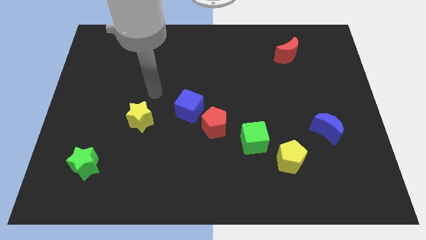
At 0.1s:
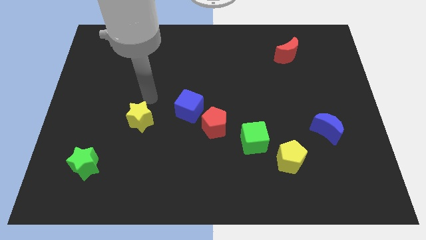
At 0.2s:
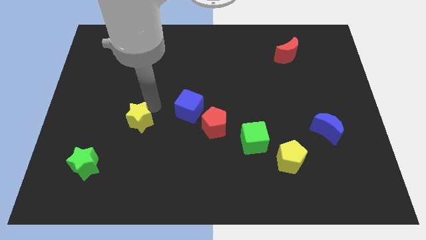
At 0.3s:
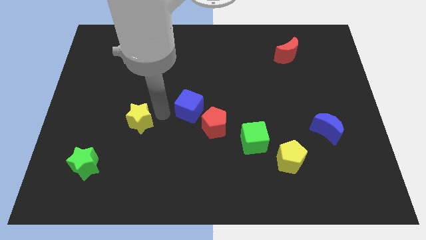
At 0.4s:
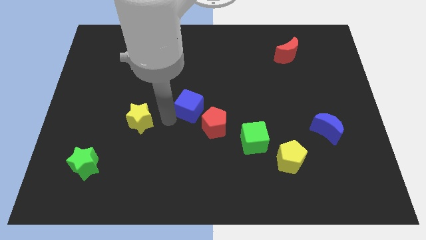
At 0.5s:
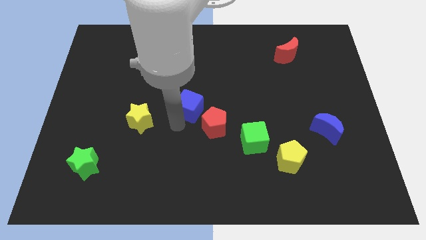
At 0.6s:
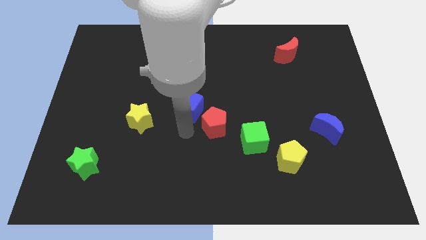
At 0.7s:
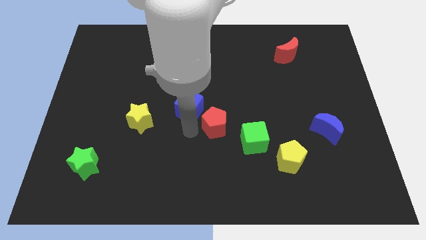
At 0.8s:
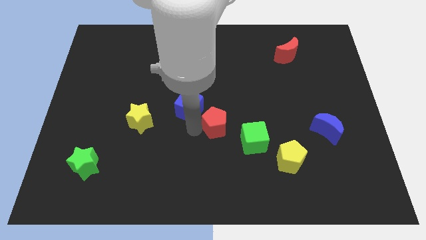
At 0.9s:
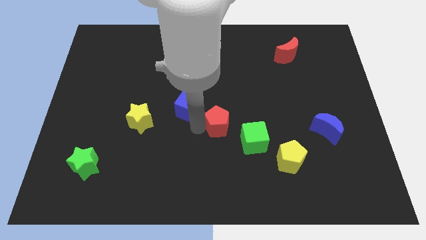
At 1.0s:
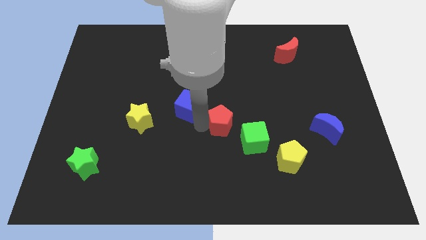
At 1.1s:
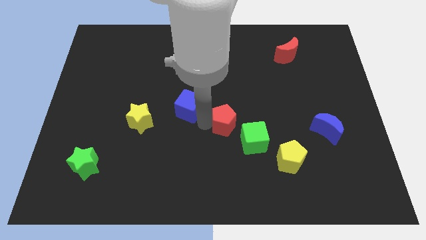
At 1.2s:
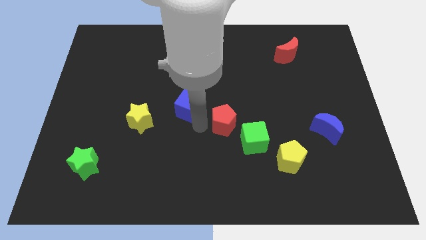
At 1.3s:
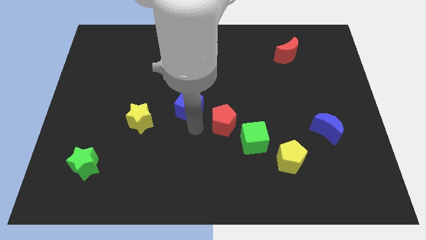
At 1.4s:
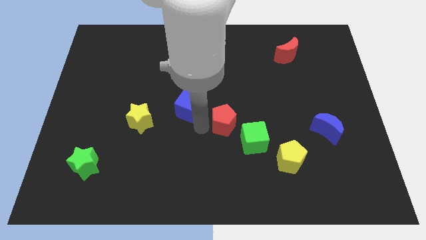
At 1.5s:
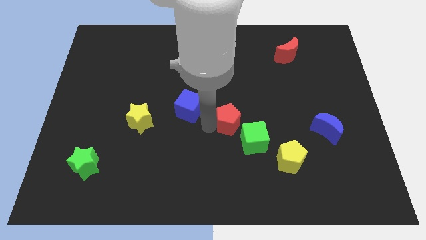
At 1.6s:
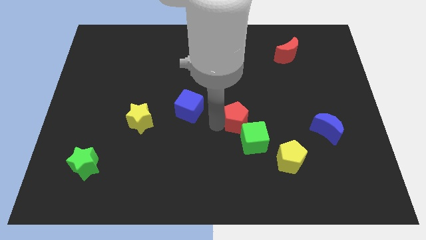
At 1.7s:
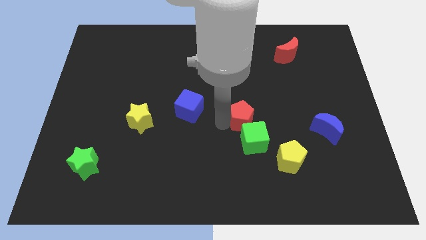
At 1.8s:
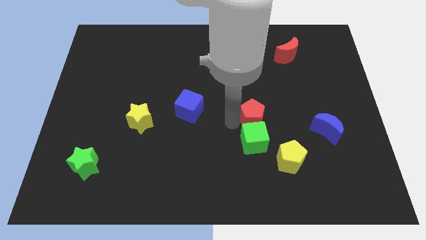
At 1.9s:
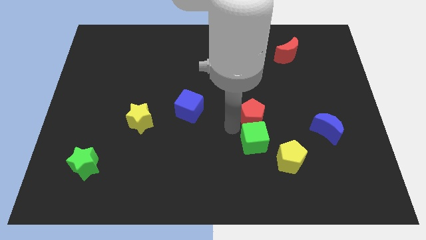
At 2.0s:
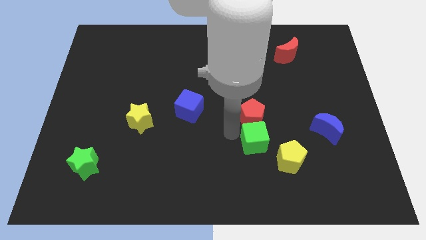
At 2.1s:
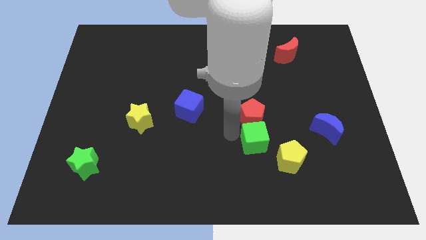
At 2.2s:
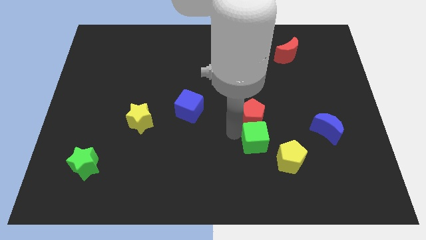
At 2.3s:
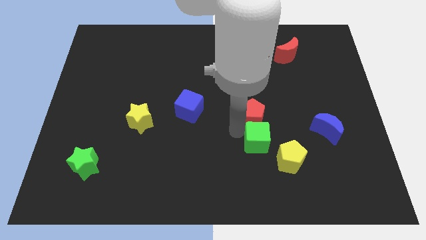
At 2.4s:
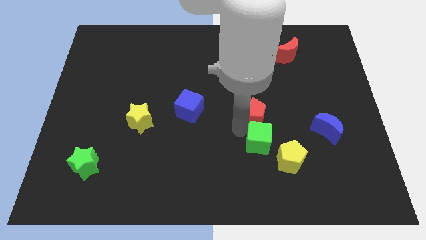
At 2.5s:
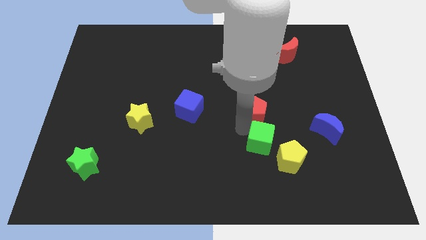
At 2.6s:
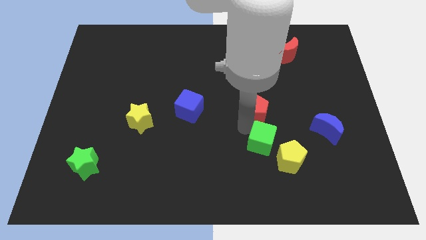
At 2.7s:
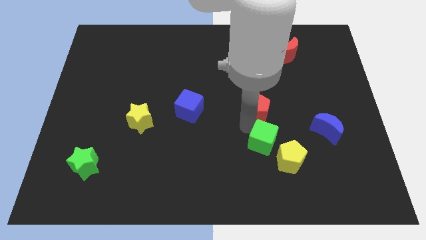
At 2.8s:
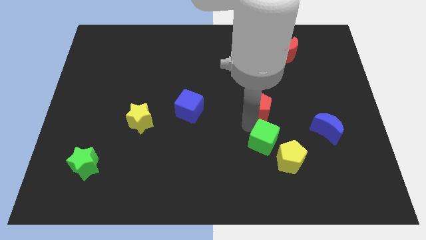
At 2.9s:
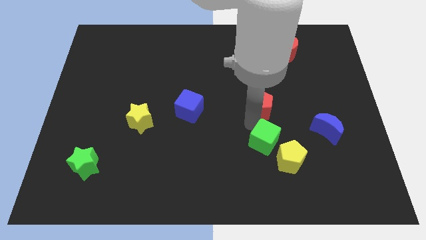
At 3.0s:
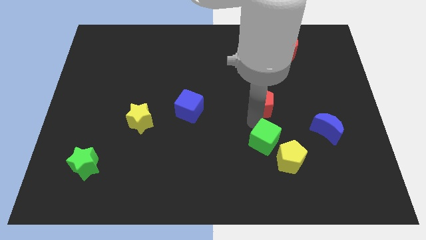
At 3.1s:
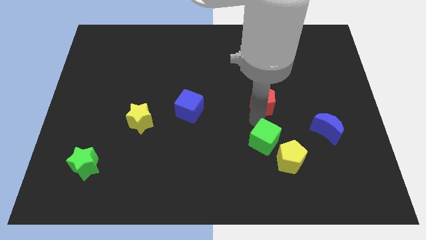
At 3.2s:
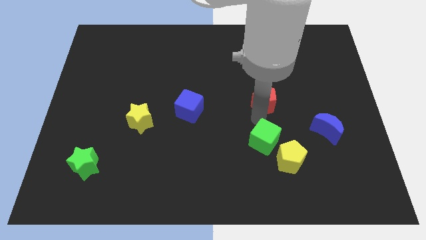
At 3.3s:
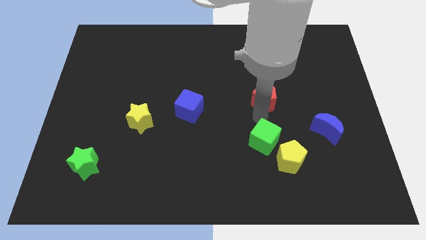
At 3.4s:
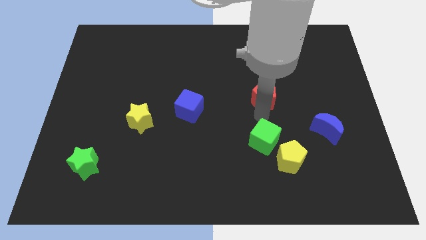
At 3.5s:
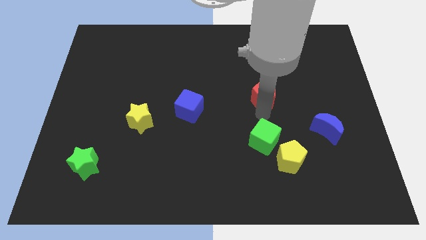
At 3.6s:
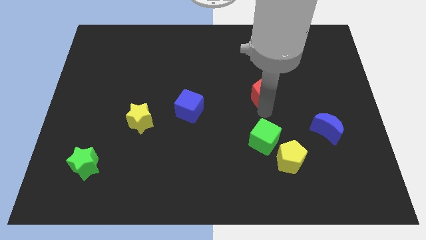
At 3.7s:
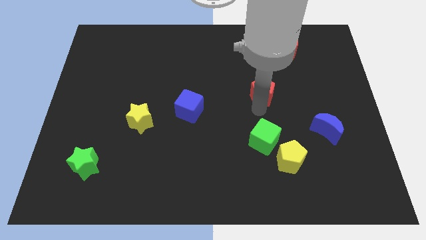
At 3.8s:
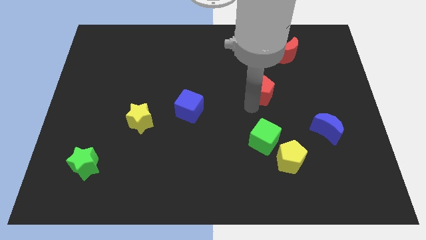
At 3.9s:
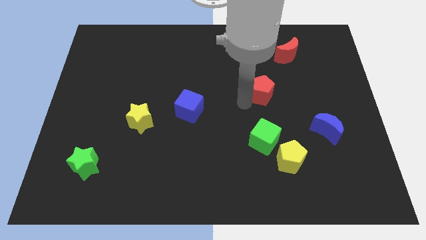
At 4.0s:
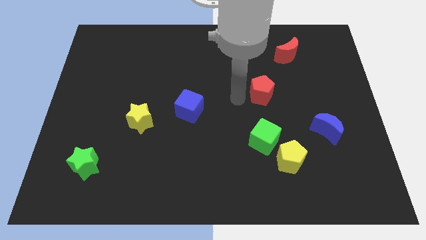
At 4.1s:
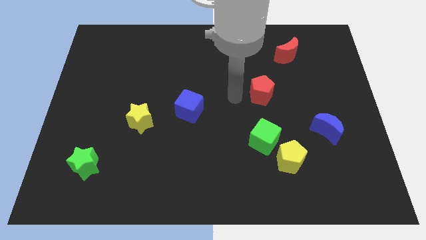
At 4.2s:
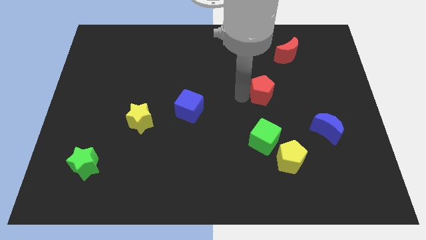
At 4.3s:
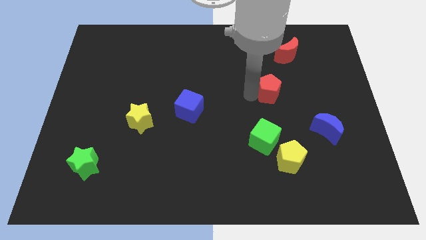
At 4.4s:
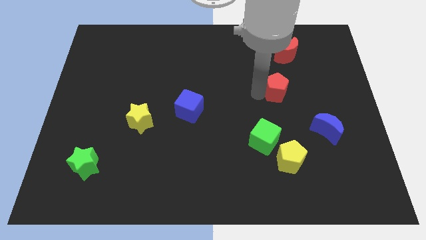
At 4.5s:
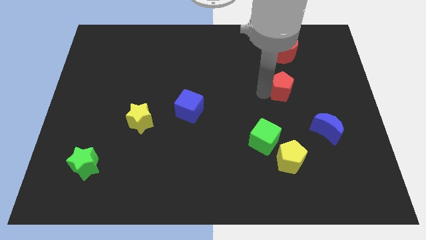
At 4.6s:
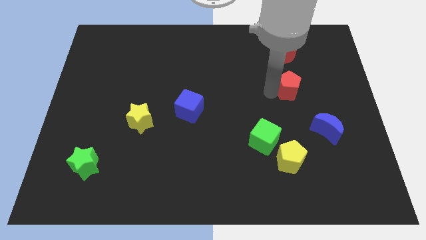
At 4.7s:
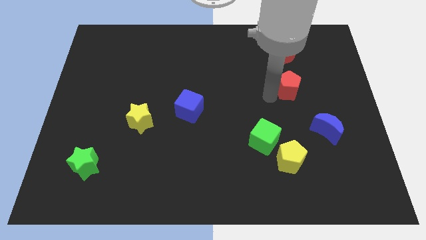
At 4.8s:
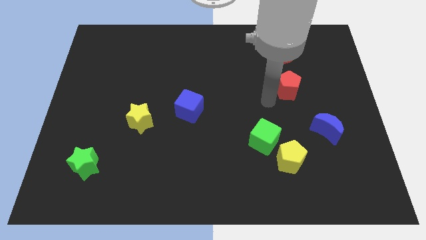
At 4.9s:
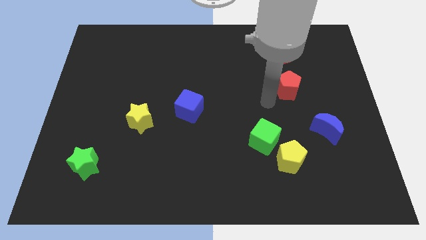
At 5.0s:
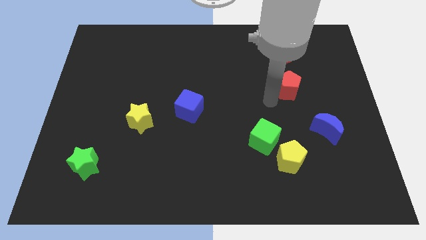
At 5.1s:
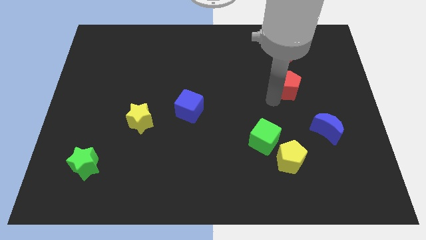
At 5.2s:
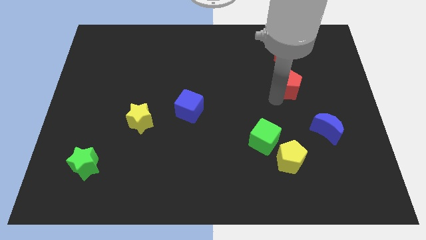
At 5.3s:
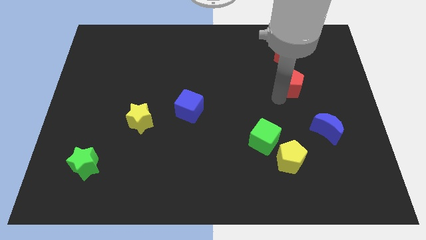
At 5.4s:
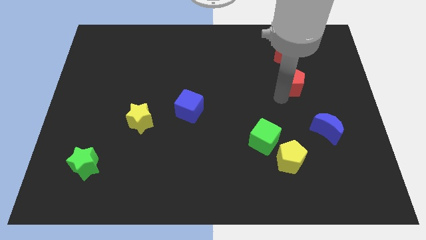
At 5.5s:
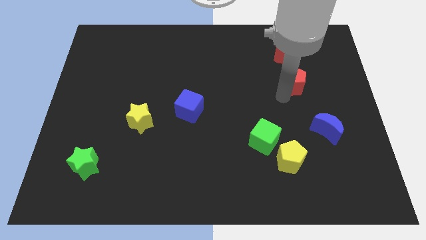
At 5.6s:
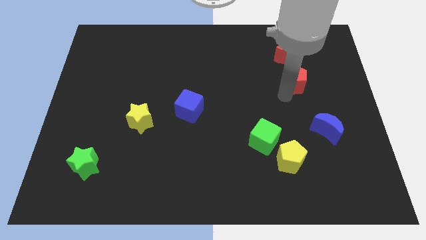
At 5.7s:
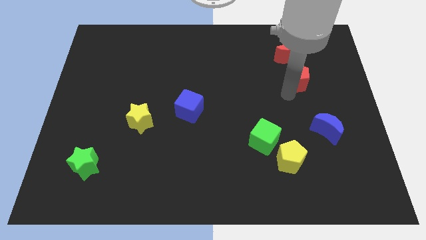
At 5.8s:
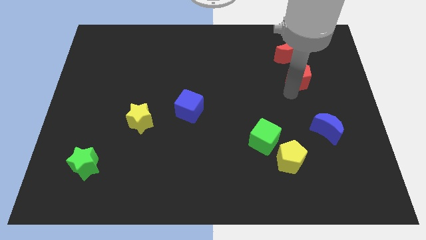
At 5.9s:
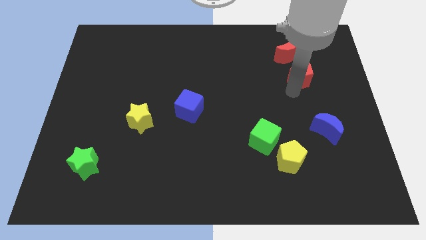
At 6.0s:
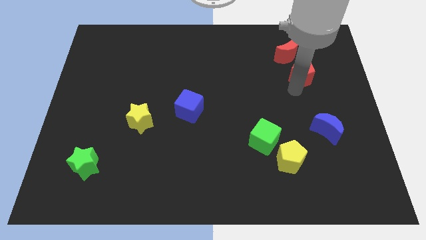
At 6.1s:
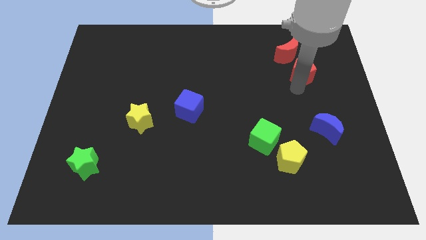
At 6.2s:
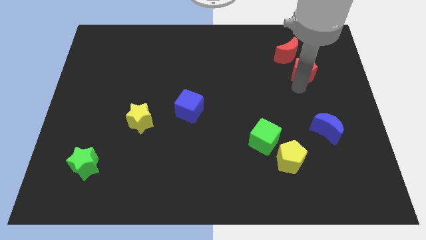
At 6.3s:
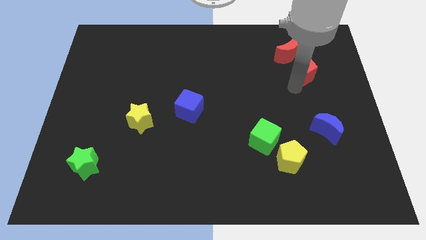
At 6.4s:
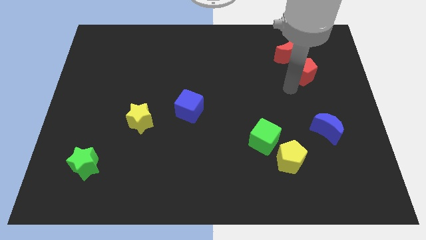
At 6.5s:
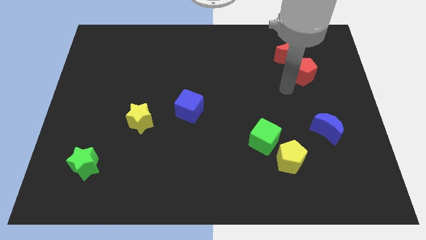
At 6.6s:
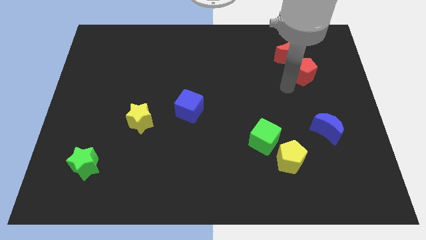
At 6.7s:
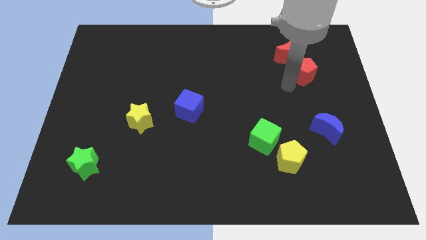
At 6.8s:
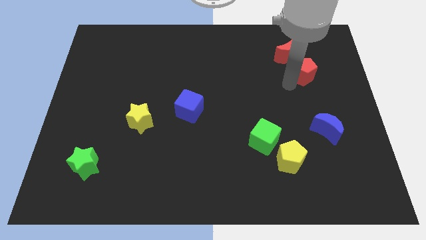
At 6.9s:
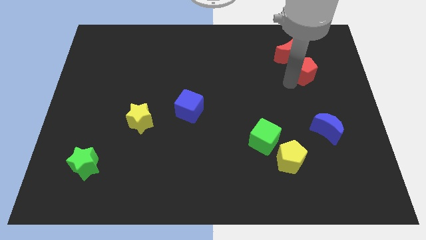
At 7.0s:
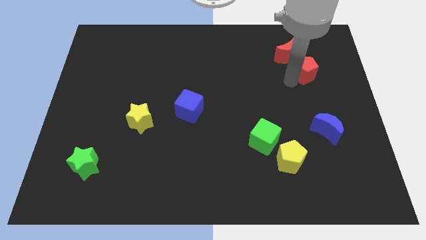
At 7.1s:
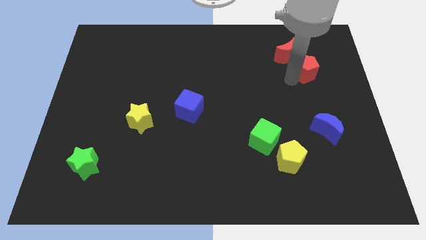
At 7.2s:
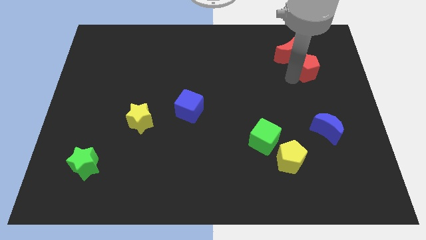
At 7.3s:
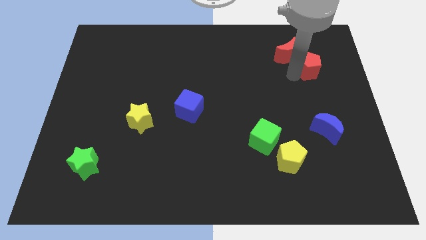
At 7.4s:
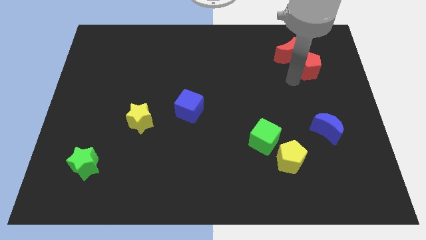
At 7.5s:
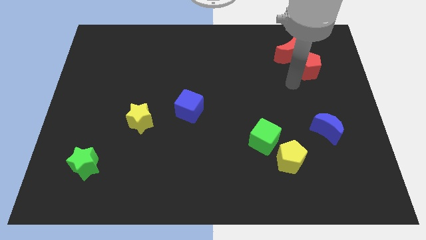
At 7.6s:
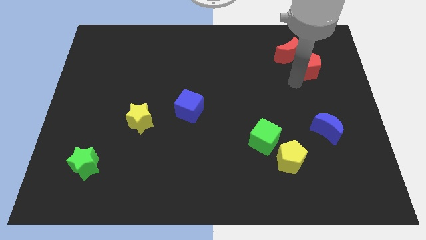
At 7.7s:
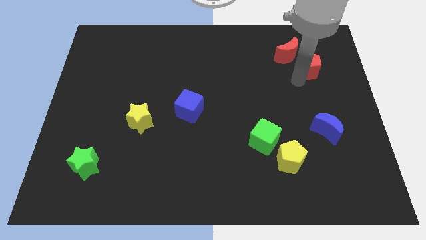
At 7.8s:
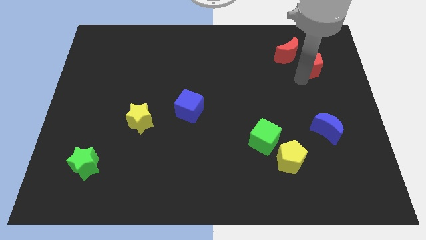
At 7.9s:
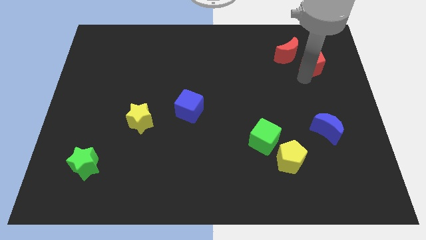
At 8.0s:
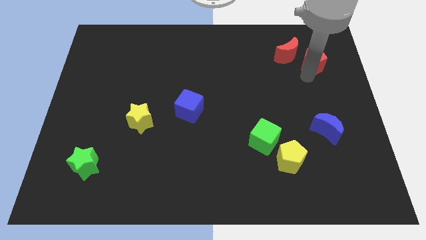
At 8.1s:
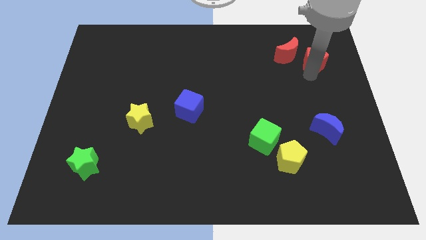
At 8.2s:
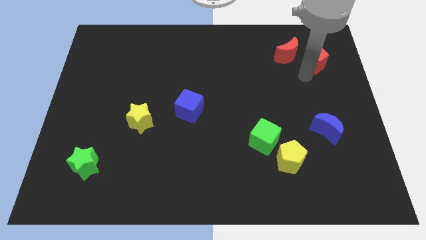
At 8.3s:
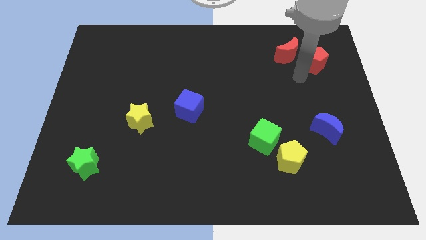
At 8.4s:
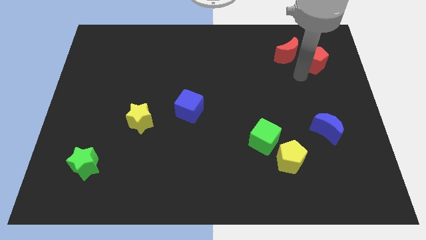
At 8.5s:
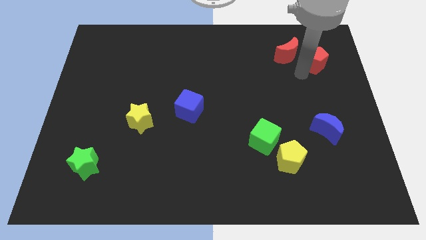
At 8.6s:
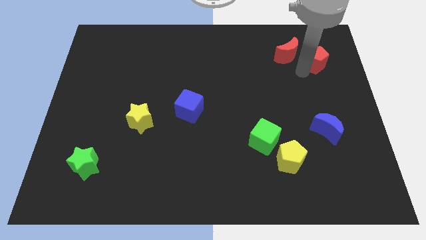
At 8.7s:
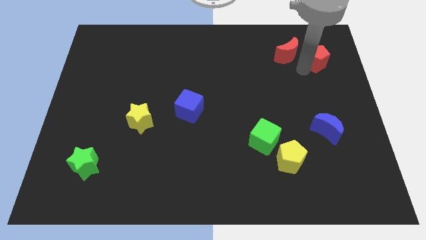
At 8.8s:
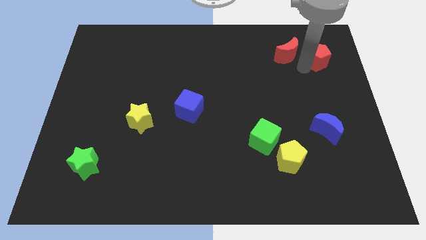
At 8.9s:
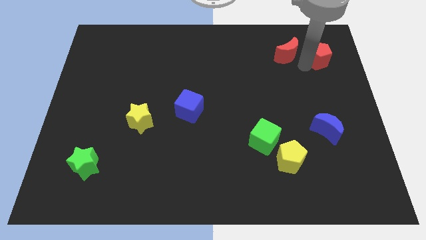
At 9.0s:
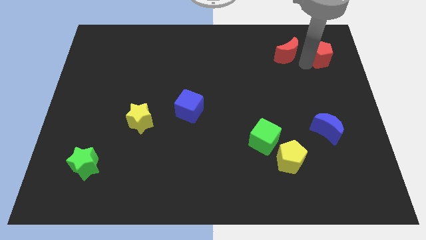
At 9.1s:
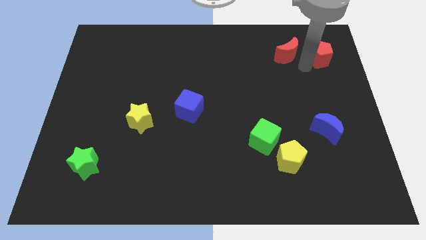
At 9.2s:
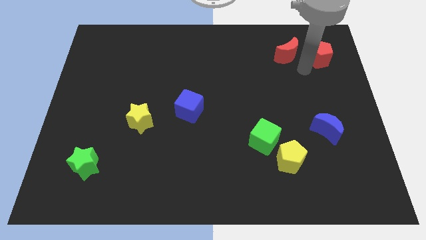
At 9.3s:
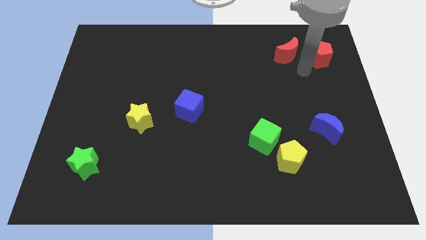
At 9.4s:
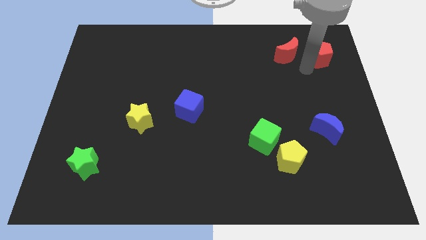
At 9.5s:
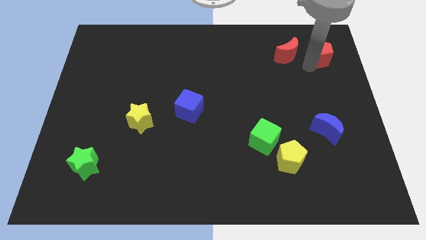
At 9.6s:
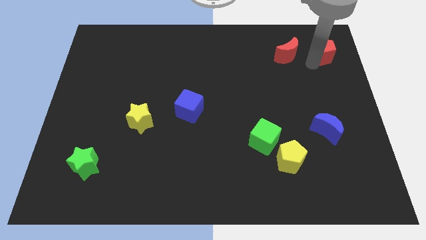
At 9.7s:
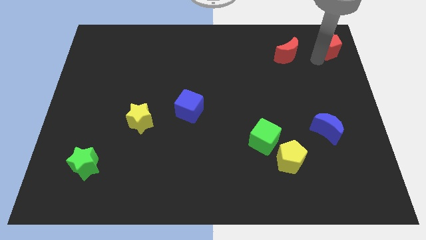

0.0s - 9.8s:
push the red pentagon to the top right of the board
